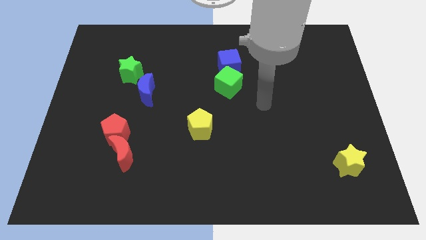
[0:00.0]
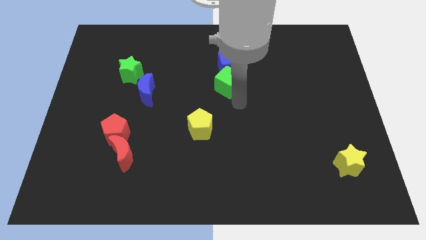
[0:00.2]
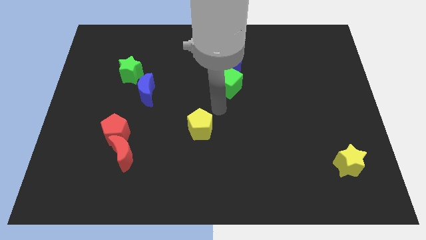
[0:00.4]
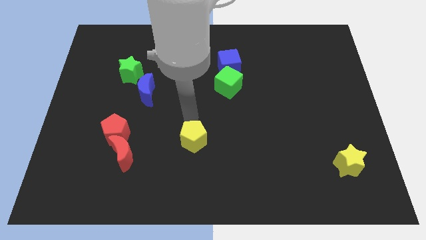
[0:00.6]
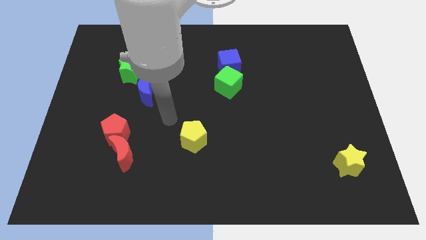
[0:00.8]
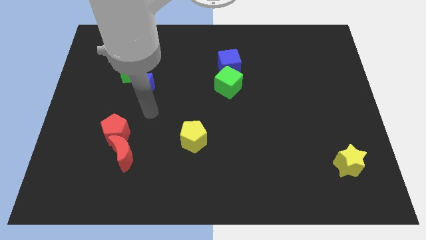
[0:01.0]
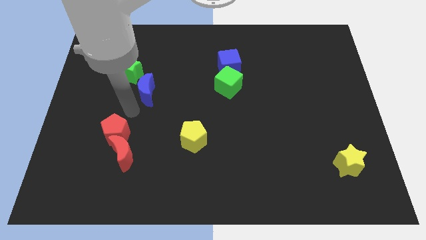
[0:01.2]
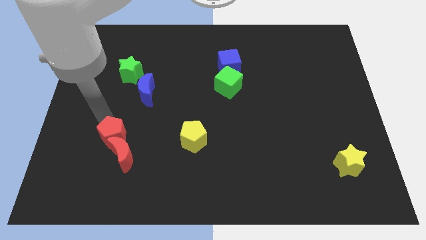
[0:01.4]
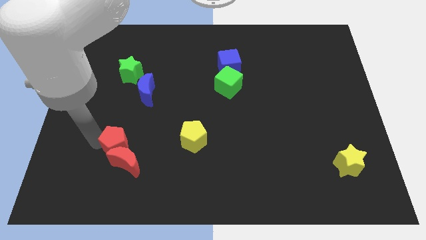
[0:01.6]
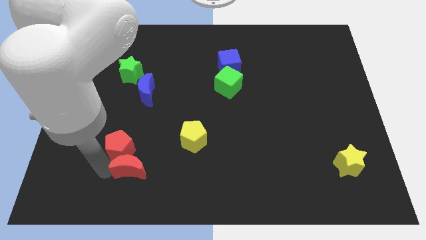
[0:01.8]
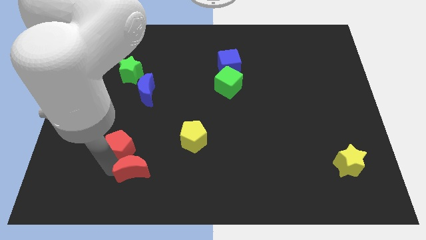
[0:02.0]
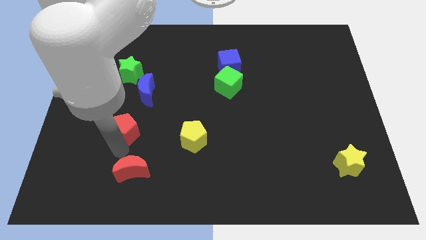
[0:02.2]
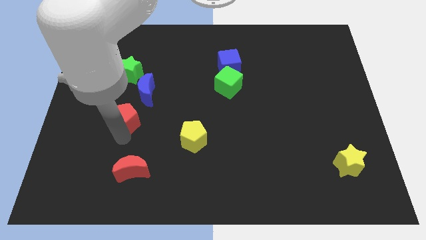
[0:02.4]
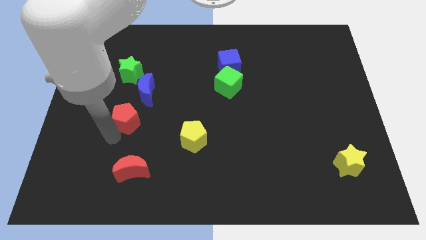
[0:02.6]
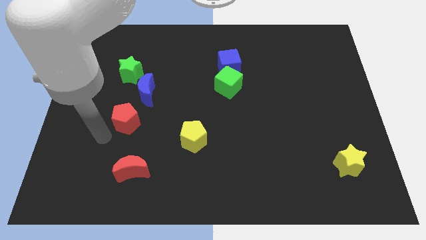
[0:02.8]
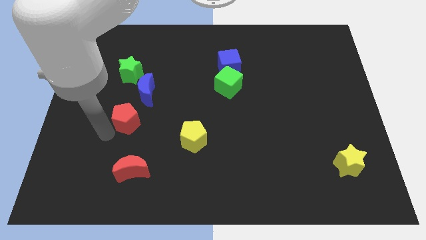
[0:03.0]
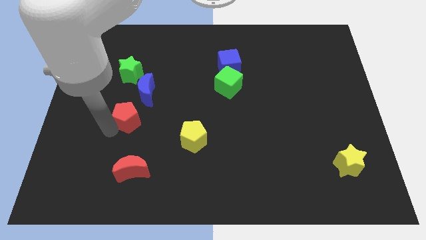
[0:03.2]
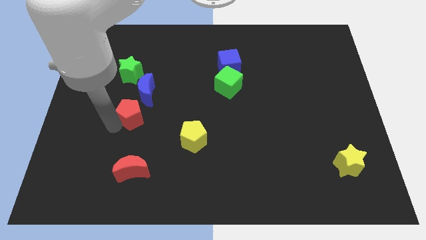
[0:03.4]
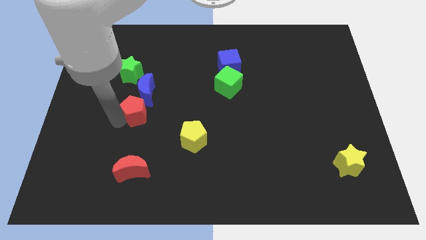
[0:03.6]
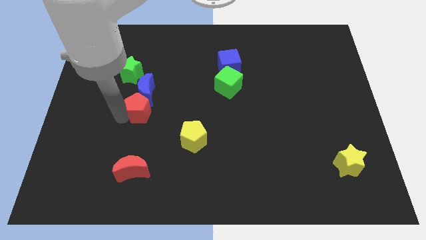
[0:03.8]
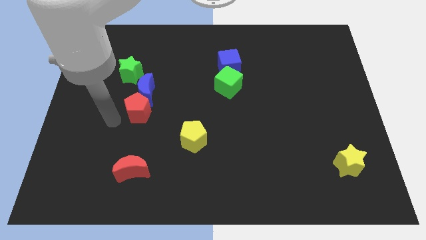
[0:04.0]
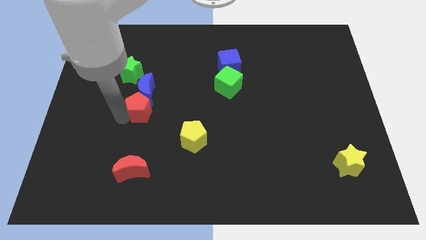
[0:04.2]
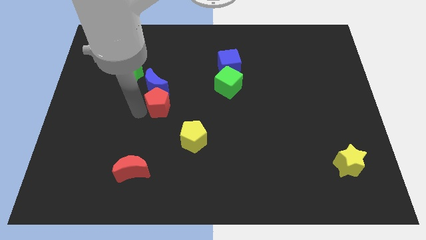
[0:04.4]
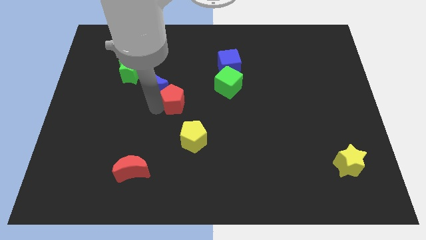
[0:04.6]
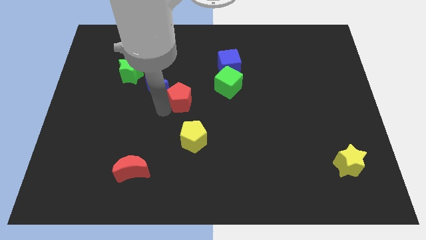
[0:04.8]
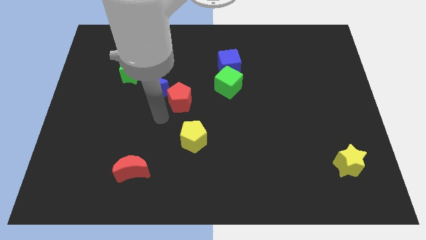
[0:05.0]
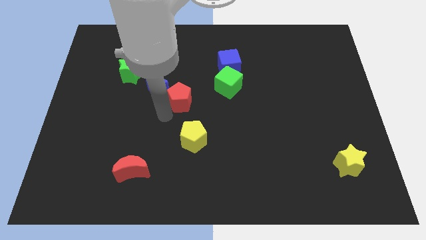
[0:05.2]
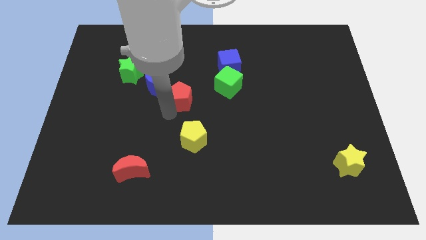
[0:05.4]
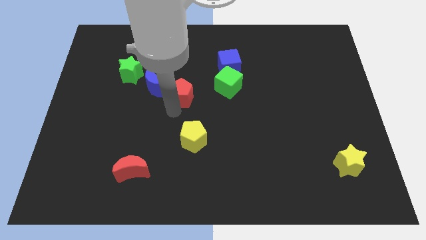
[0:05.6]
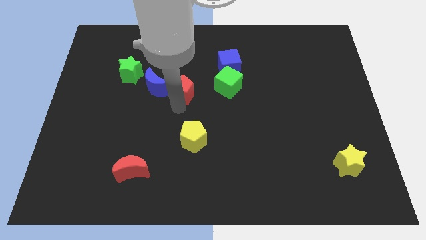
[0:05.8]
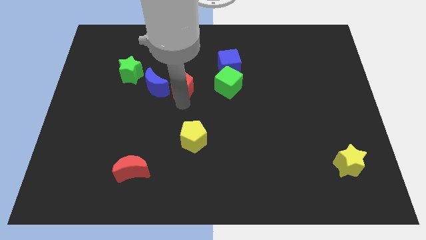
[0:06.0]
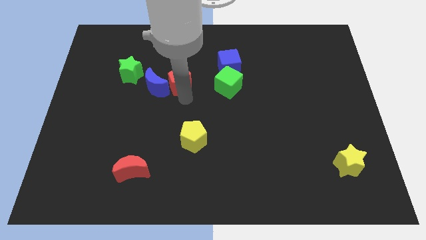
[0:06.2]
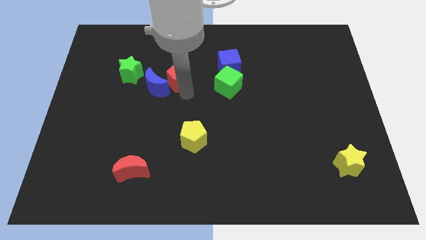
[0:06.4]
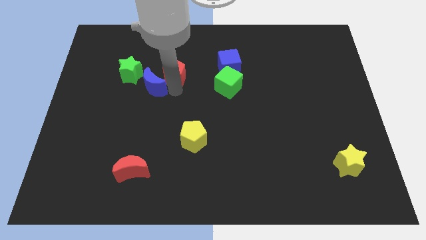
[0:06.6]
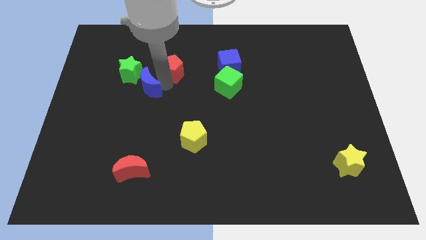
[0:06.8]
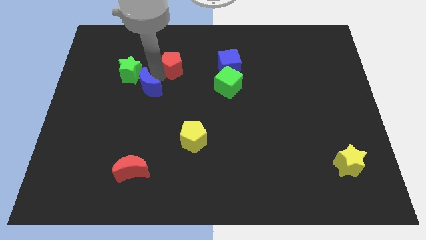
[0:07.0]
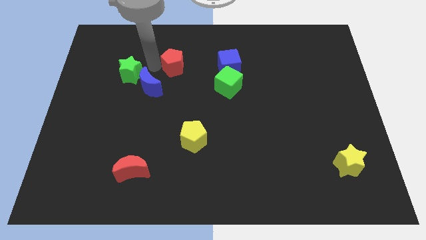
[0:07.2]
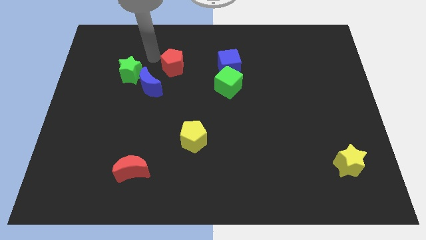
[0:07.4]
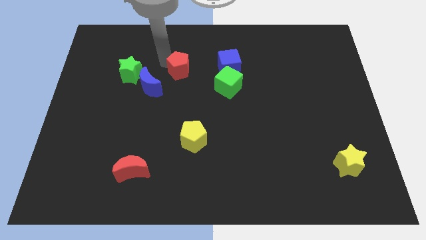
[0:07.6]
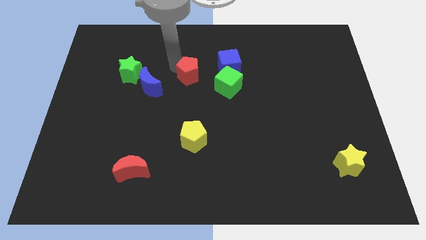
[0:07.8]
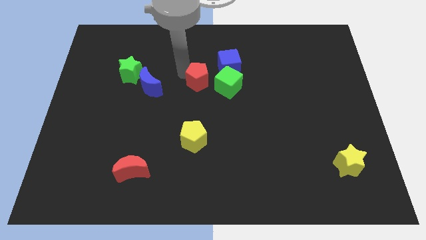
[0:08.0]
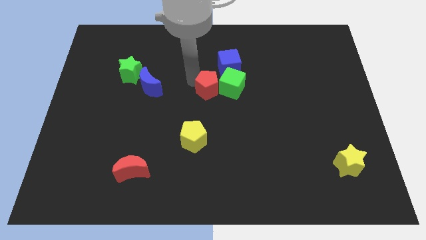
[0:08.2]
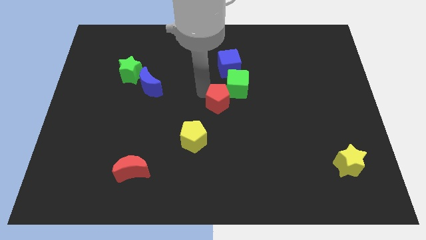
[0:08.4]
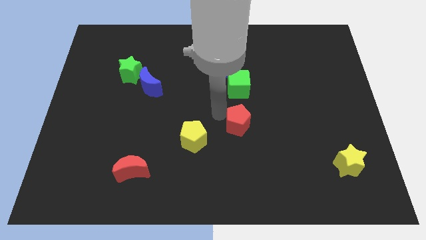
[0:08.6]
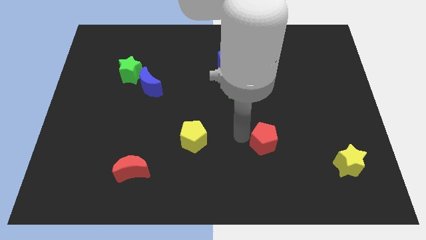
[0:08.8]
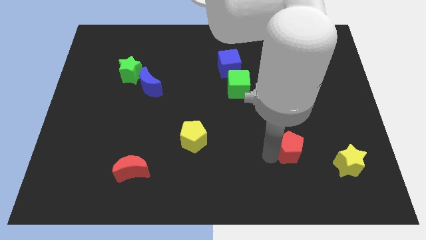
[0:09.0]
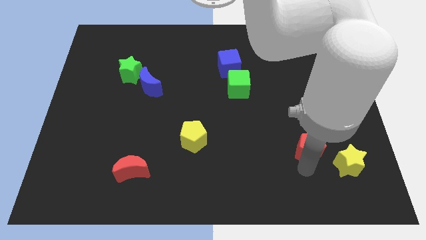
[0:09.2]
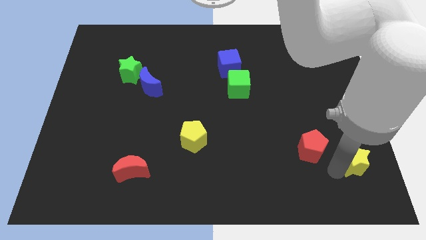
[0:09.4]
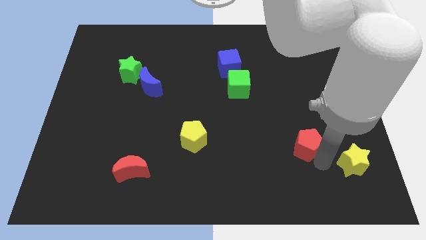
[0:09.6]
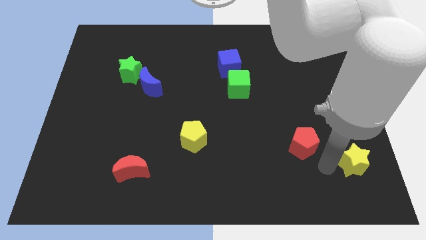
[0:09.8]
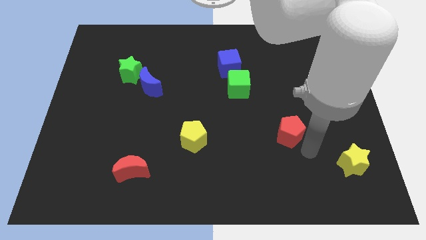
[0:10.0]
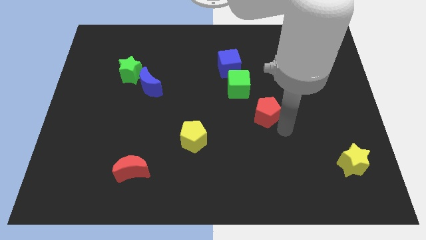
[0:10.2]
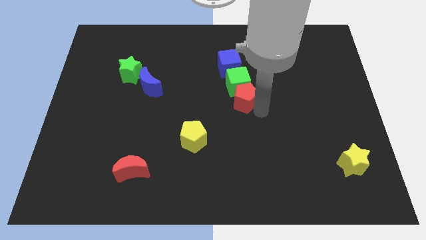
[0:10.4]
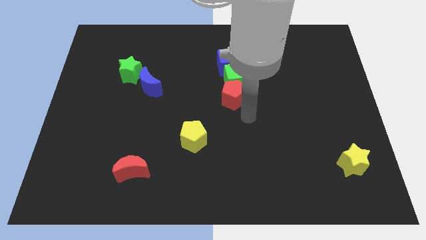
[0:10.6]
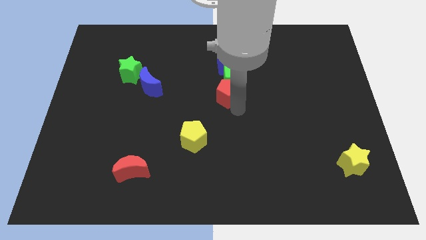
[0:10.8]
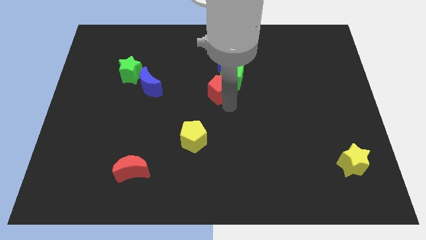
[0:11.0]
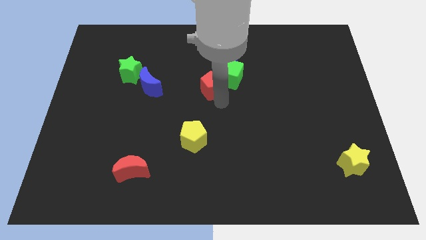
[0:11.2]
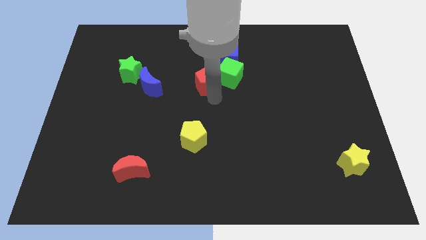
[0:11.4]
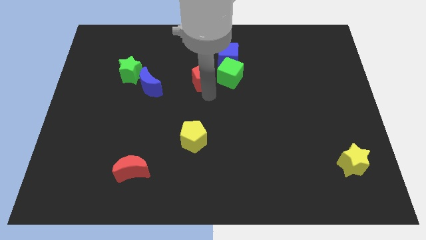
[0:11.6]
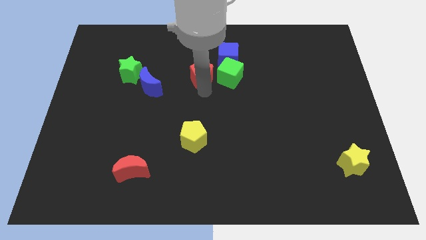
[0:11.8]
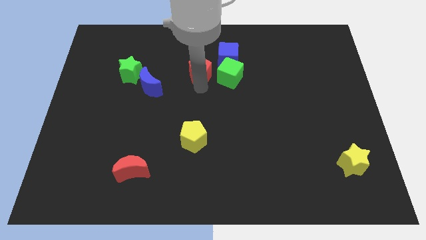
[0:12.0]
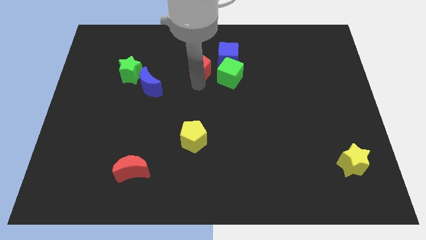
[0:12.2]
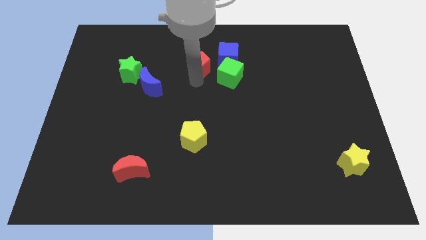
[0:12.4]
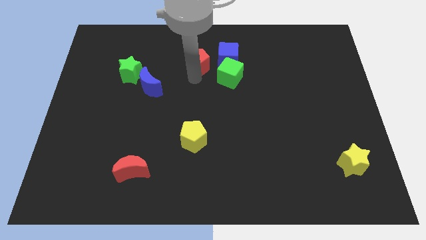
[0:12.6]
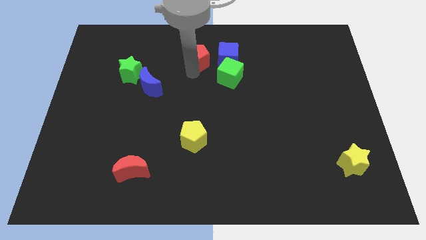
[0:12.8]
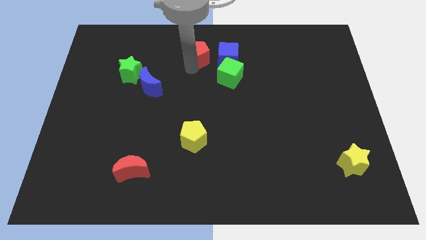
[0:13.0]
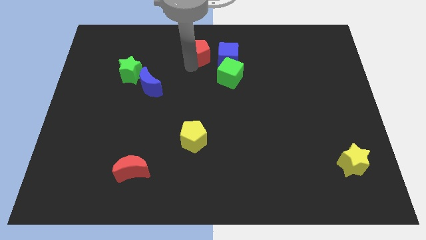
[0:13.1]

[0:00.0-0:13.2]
move the red pentagon to the top
